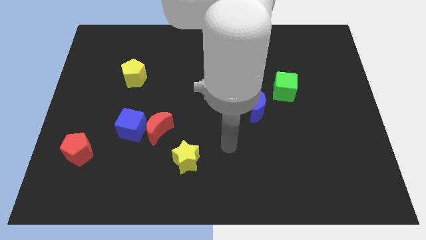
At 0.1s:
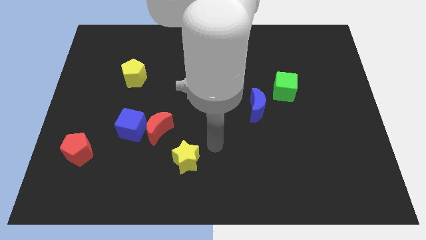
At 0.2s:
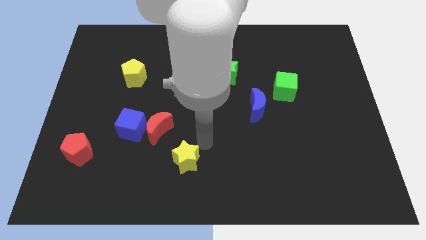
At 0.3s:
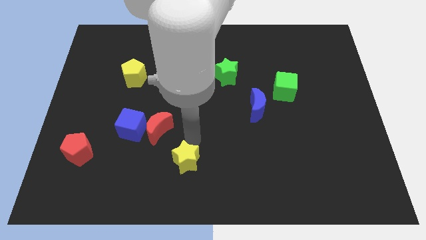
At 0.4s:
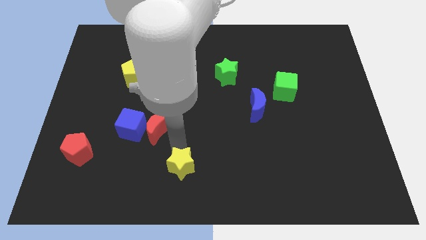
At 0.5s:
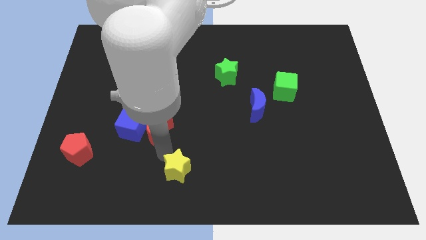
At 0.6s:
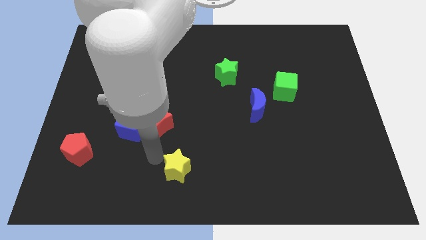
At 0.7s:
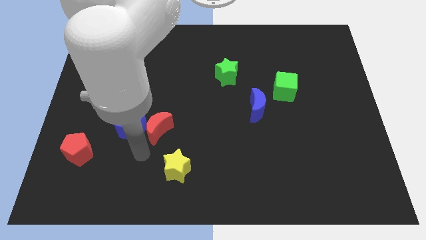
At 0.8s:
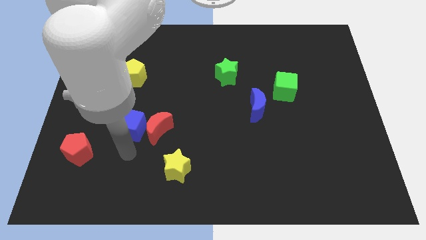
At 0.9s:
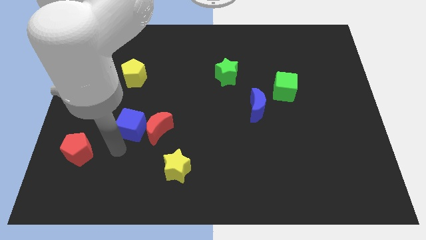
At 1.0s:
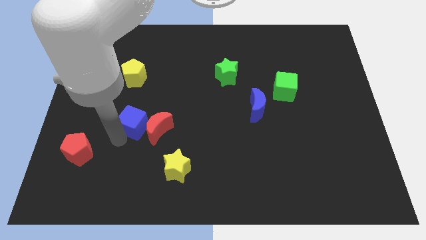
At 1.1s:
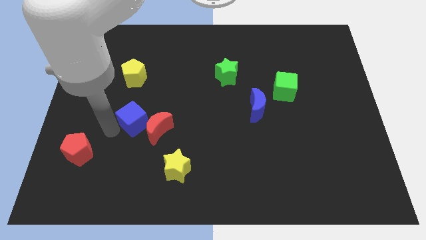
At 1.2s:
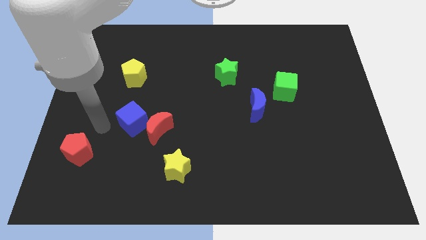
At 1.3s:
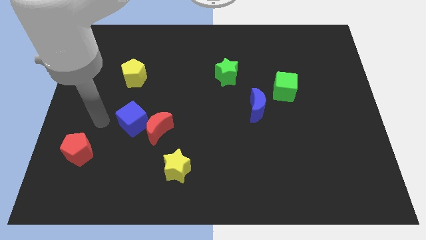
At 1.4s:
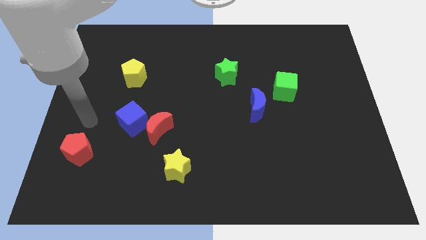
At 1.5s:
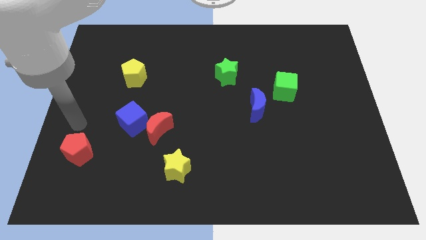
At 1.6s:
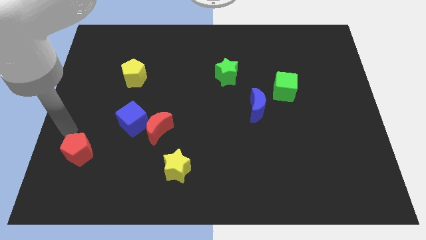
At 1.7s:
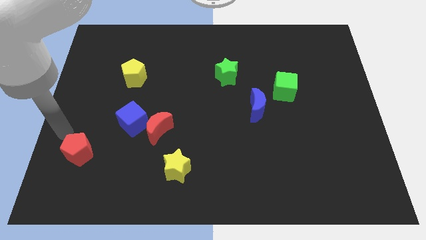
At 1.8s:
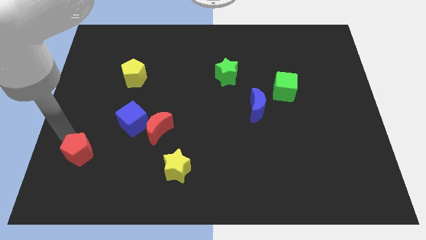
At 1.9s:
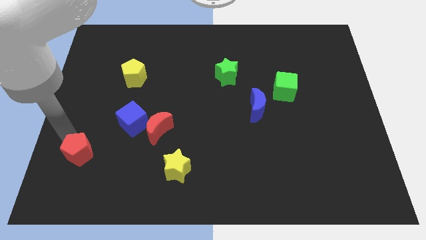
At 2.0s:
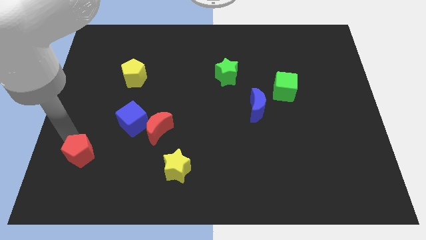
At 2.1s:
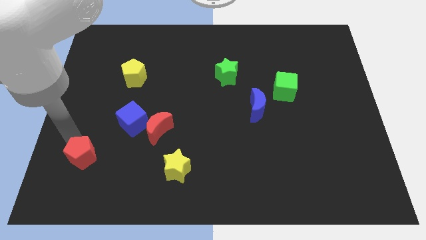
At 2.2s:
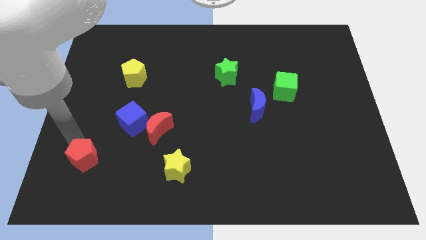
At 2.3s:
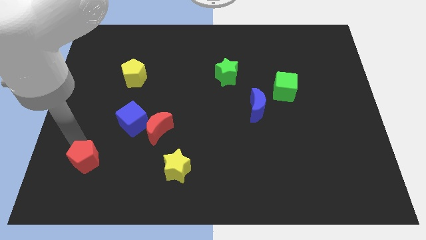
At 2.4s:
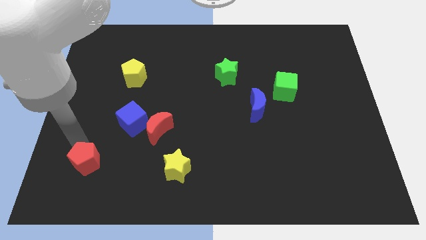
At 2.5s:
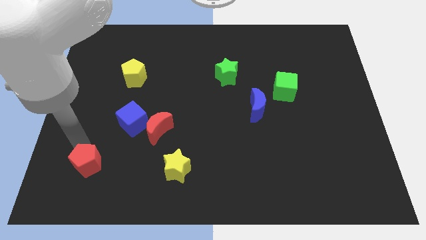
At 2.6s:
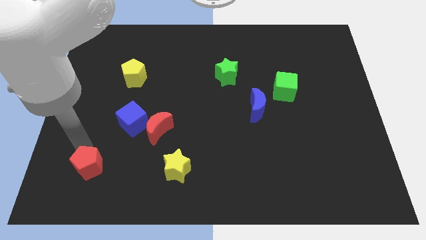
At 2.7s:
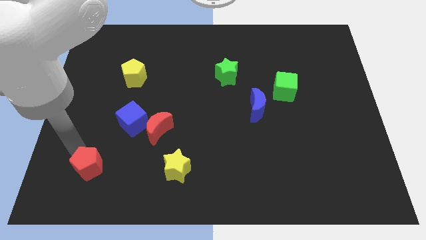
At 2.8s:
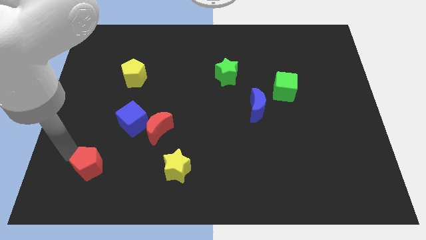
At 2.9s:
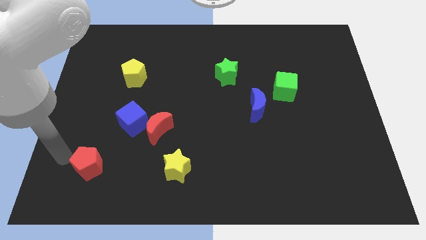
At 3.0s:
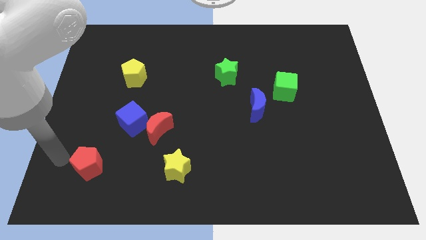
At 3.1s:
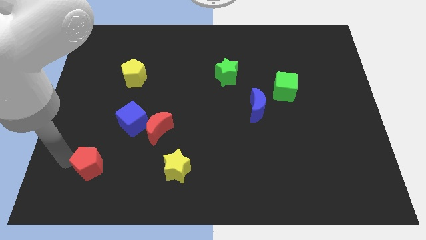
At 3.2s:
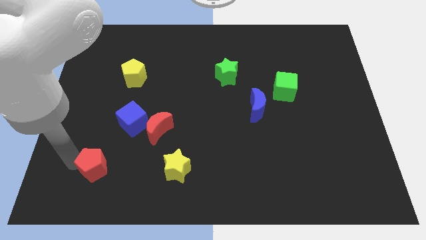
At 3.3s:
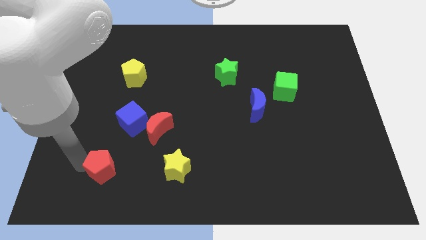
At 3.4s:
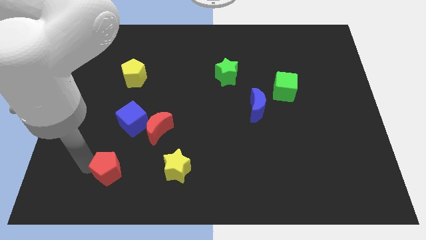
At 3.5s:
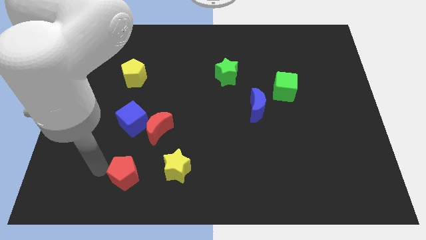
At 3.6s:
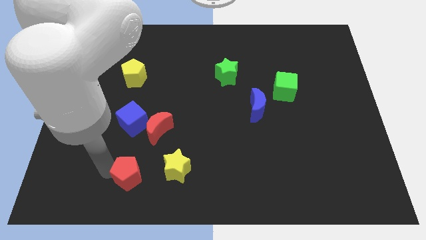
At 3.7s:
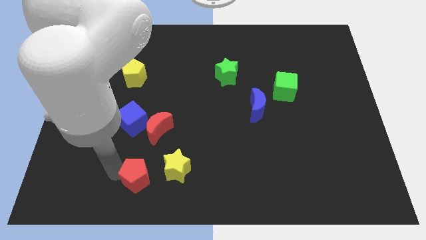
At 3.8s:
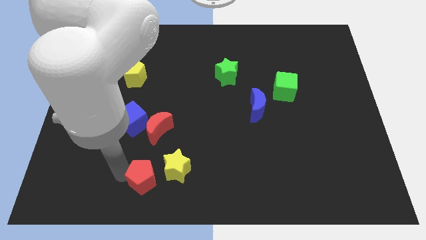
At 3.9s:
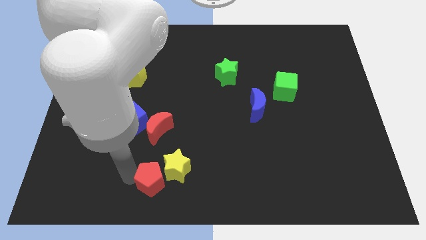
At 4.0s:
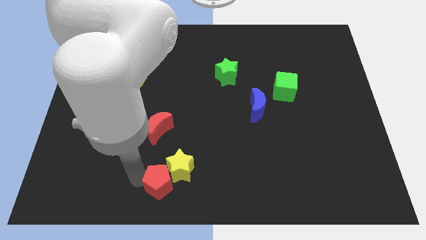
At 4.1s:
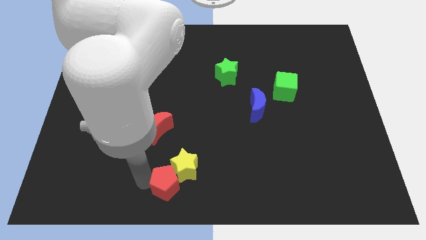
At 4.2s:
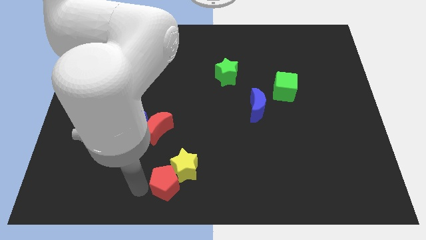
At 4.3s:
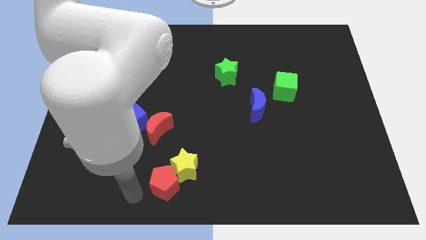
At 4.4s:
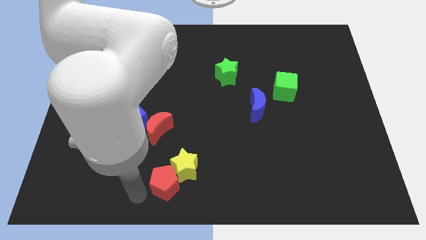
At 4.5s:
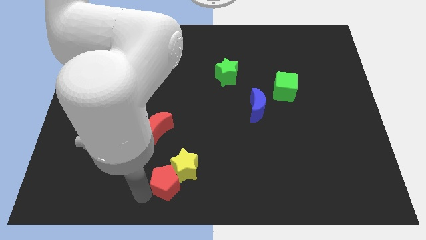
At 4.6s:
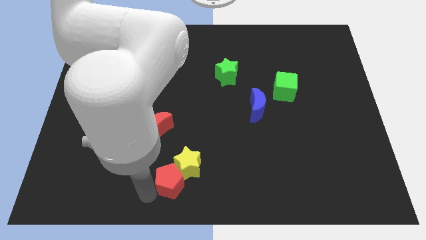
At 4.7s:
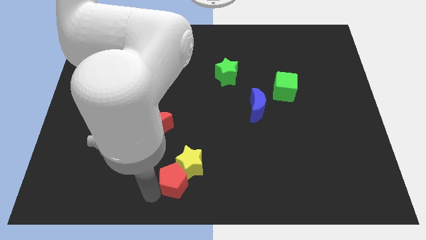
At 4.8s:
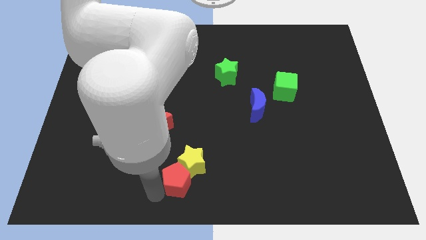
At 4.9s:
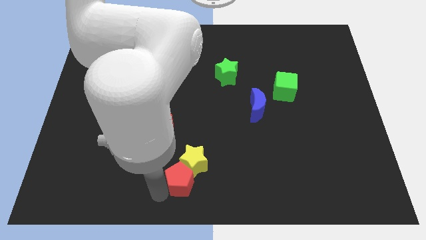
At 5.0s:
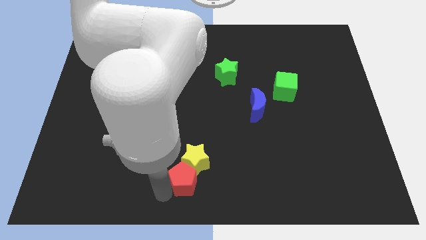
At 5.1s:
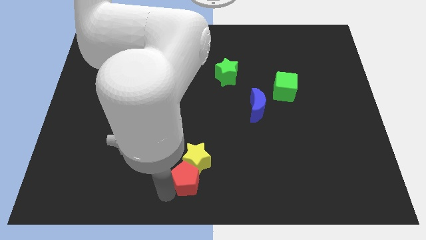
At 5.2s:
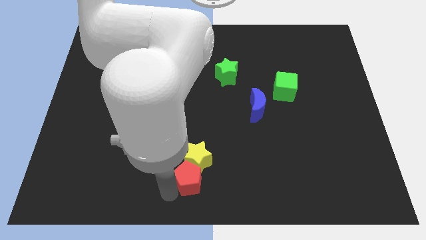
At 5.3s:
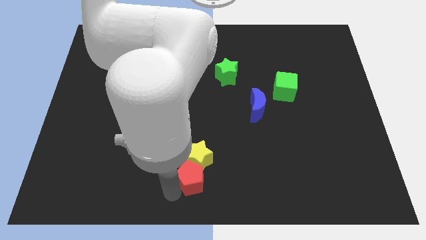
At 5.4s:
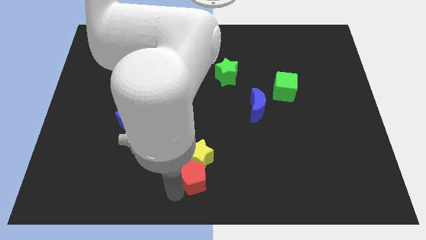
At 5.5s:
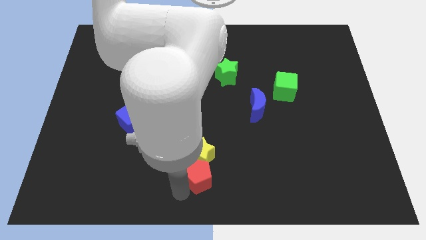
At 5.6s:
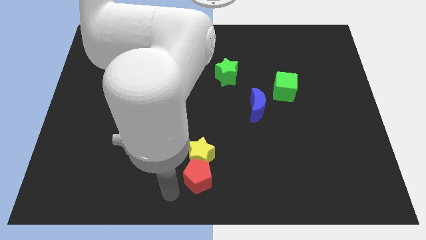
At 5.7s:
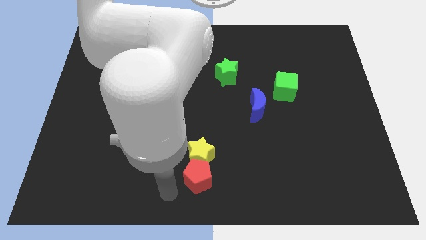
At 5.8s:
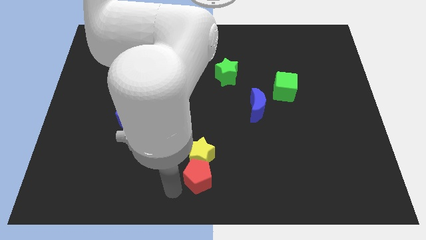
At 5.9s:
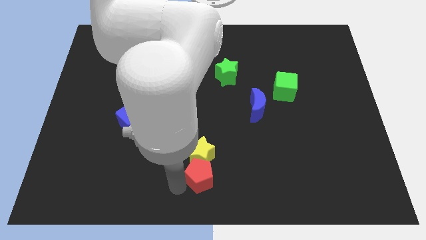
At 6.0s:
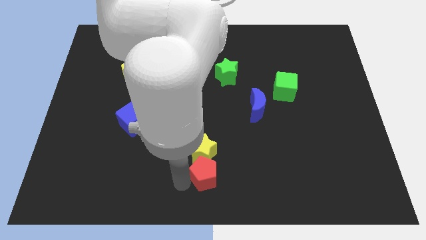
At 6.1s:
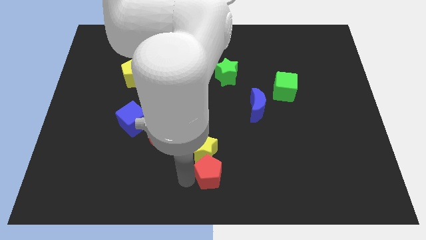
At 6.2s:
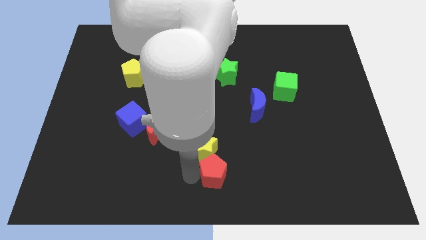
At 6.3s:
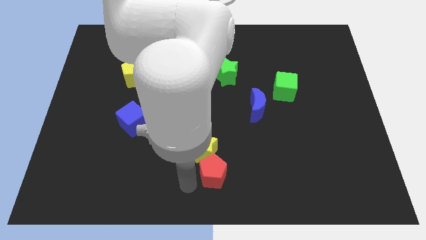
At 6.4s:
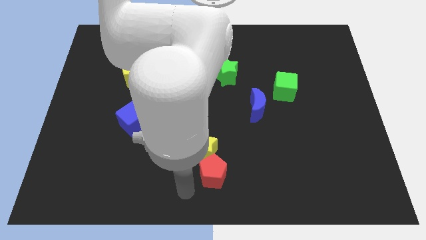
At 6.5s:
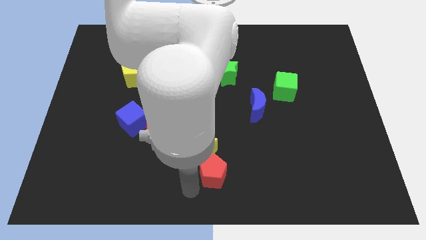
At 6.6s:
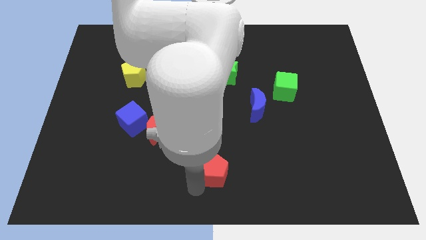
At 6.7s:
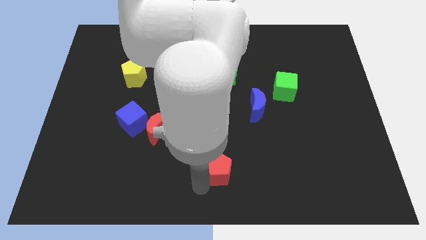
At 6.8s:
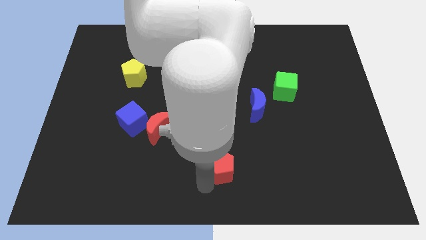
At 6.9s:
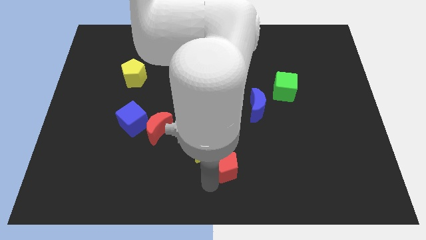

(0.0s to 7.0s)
push the red pentagon to the right side of the yellow star

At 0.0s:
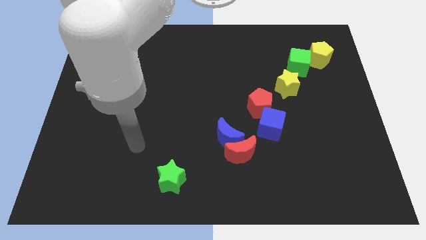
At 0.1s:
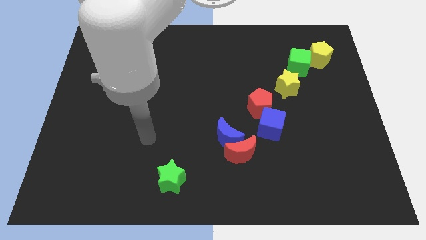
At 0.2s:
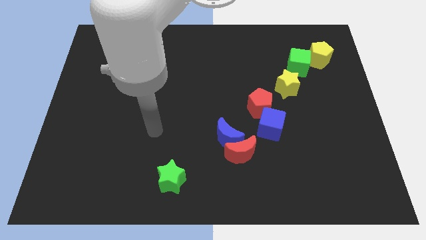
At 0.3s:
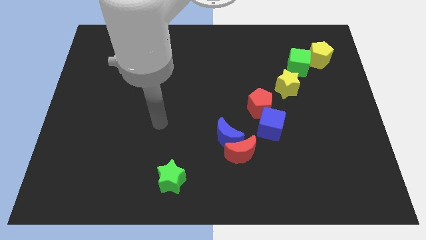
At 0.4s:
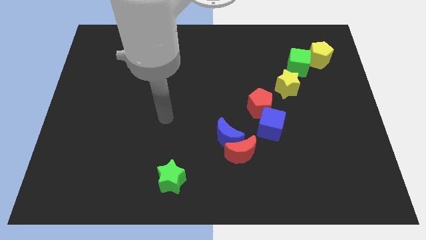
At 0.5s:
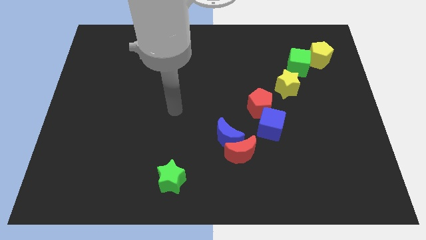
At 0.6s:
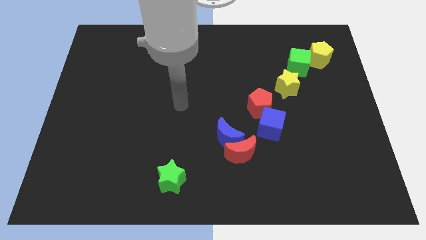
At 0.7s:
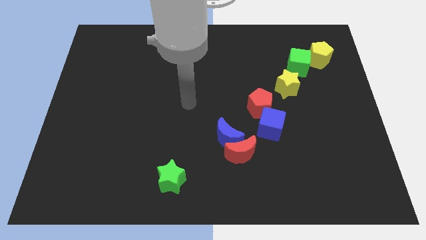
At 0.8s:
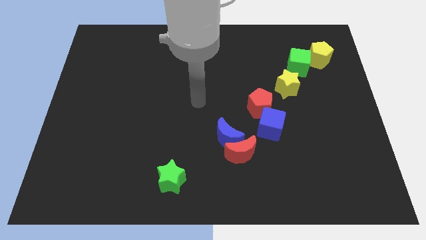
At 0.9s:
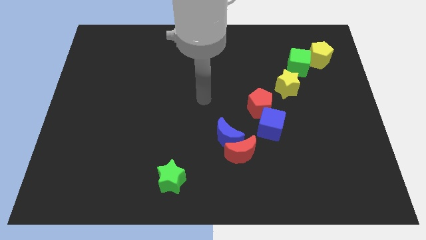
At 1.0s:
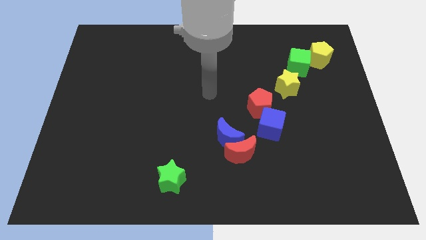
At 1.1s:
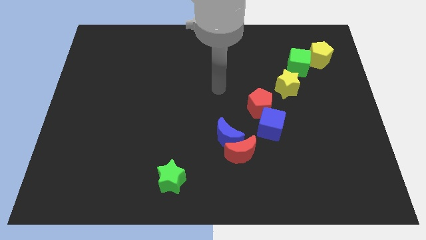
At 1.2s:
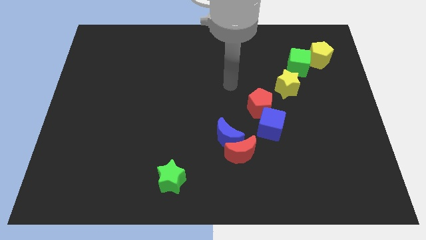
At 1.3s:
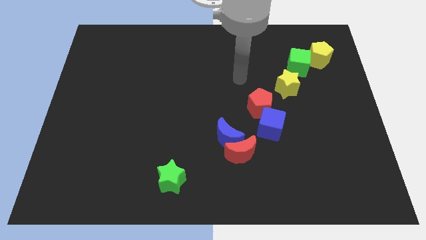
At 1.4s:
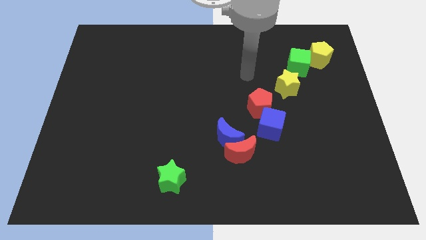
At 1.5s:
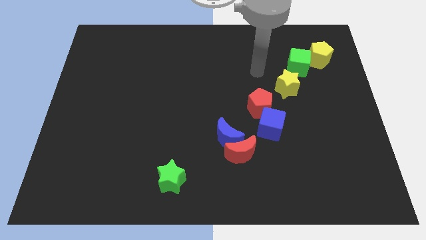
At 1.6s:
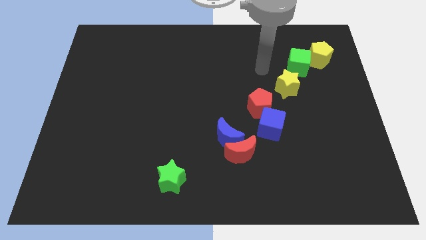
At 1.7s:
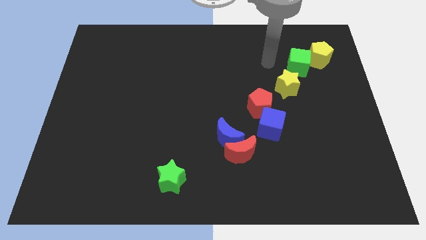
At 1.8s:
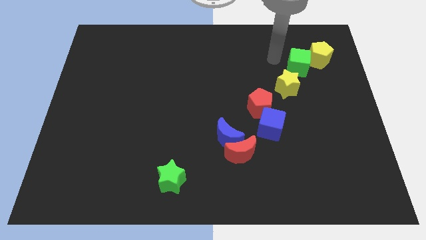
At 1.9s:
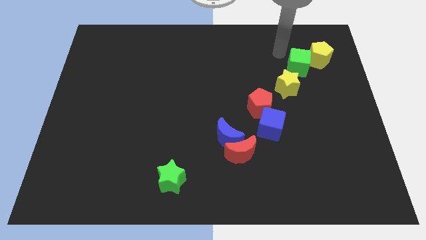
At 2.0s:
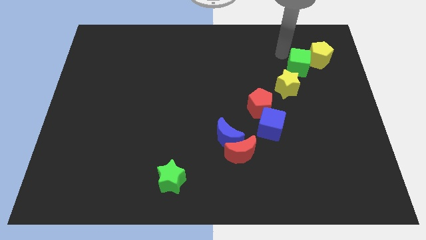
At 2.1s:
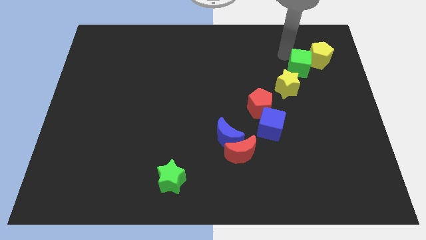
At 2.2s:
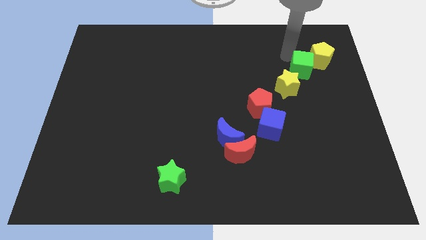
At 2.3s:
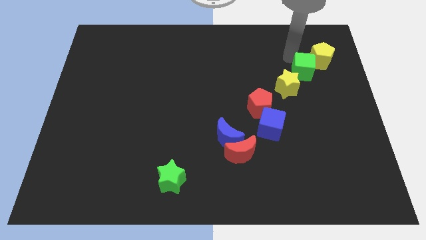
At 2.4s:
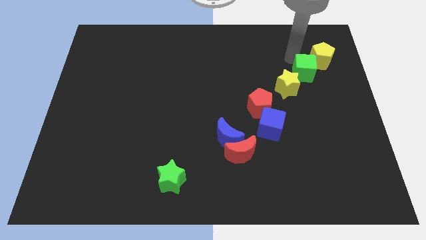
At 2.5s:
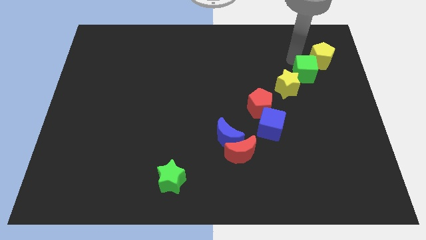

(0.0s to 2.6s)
slide the green cube to the right side of the yellow star
